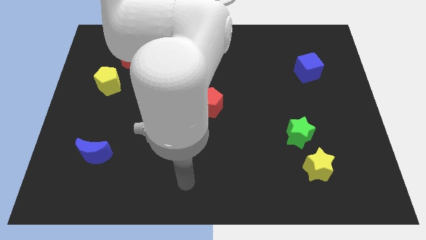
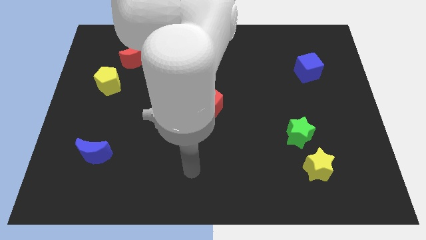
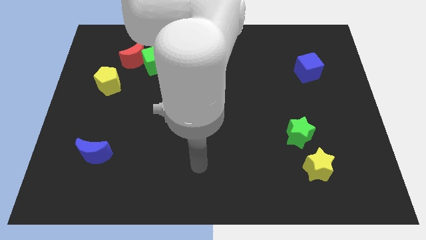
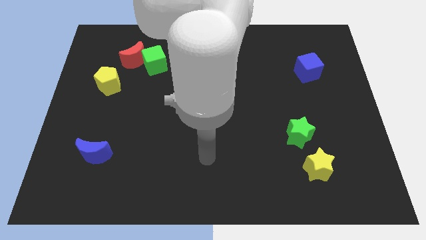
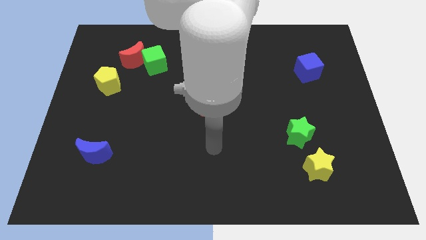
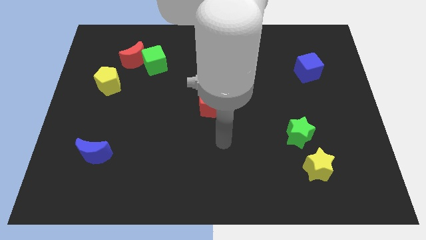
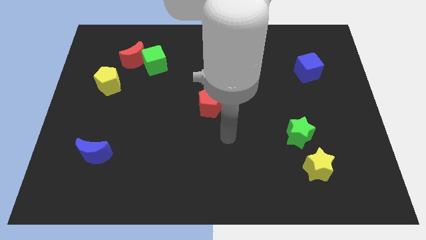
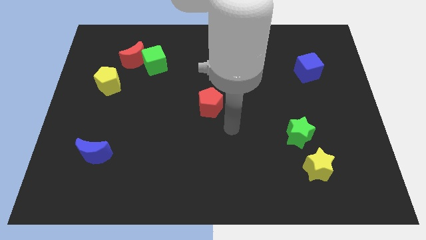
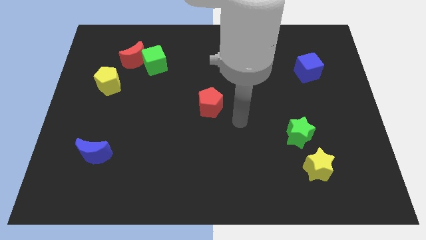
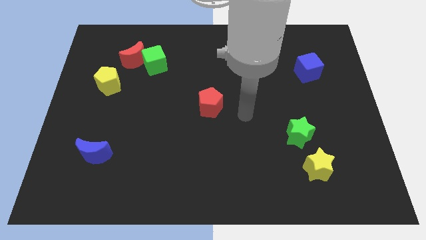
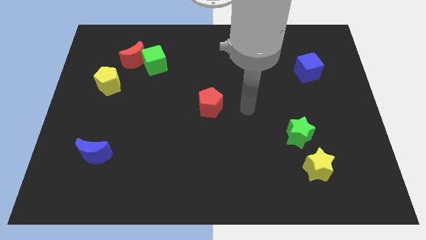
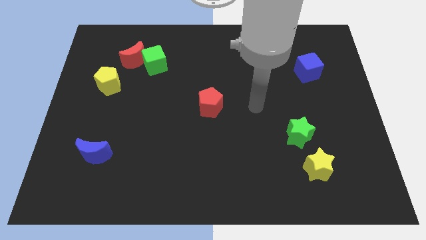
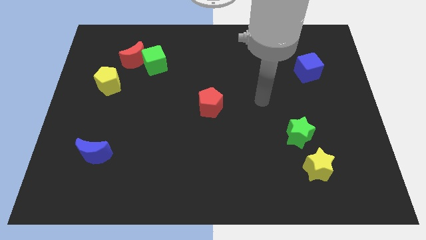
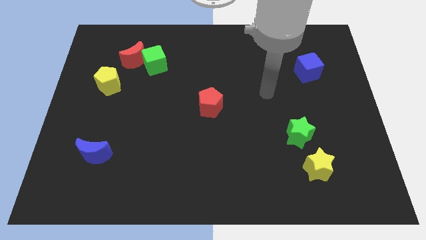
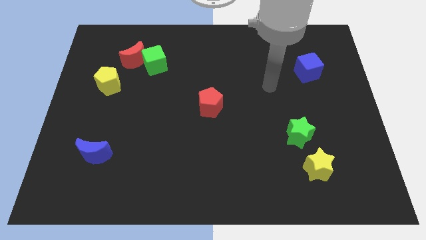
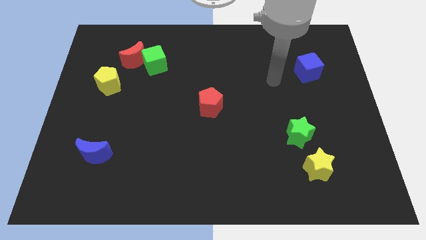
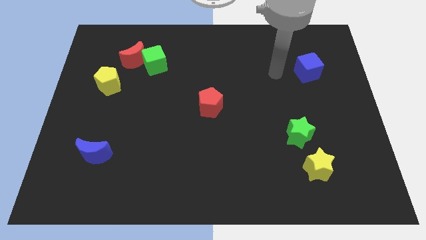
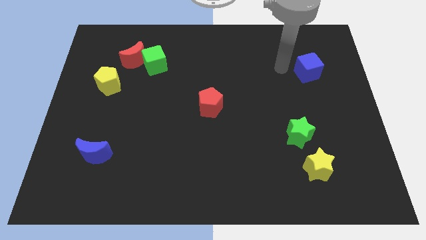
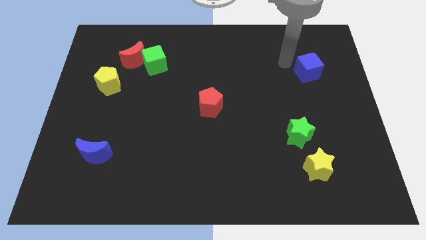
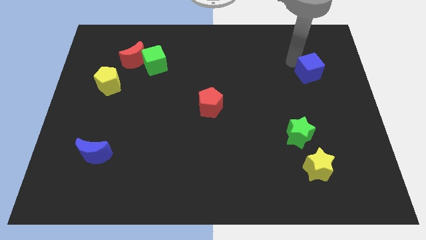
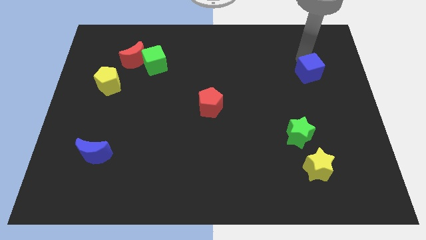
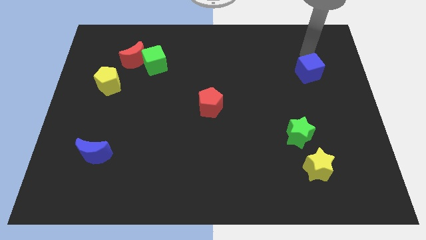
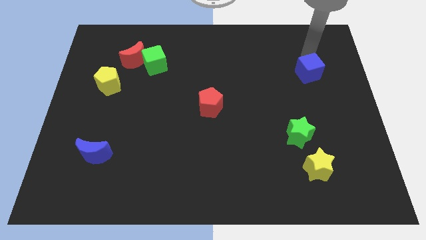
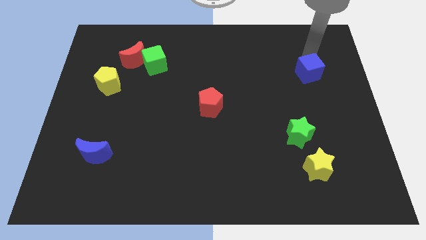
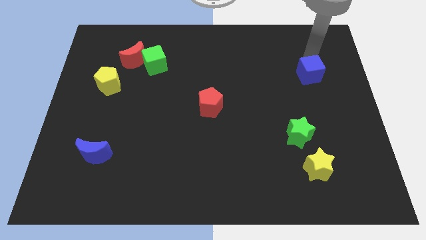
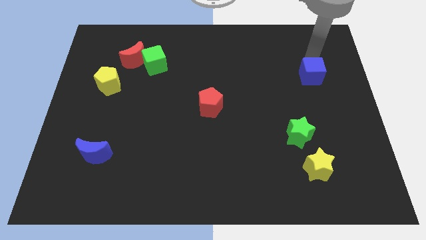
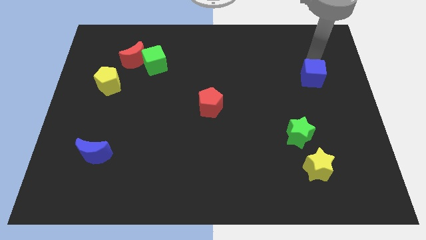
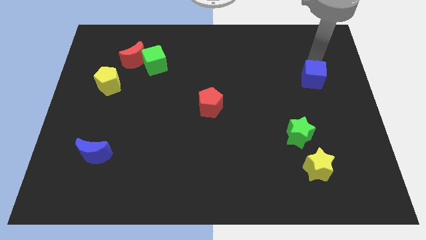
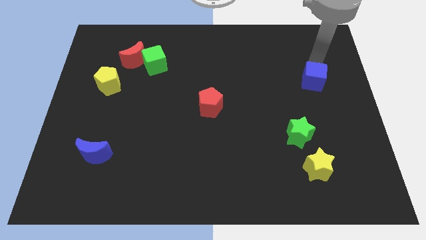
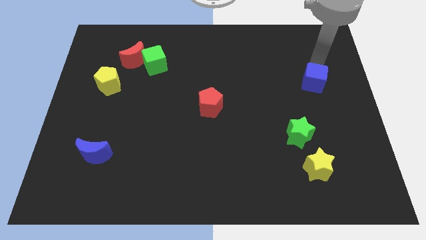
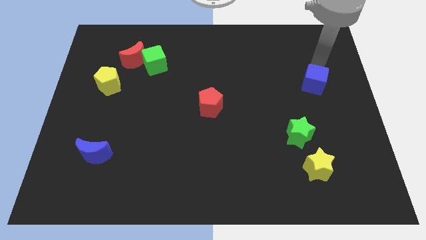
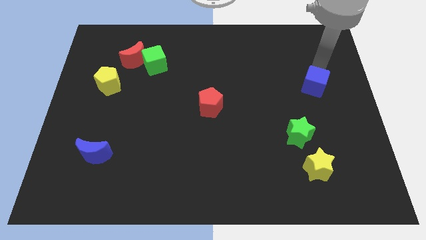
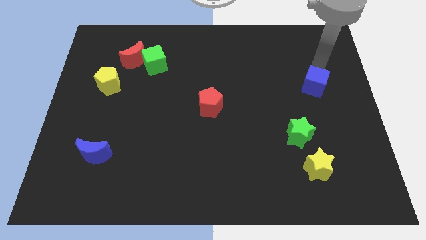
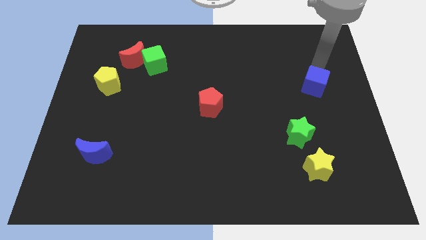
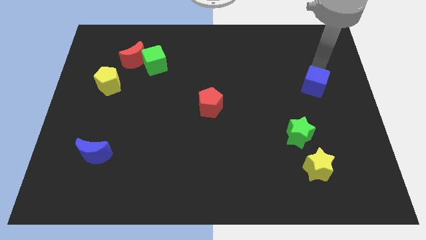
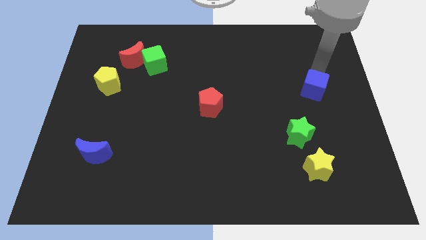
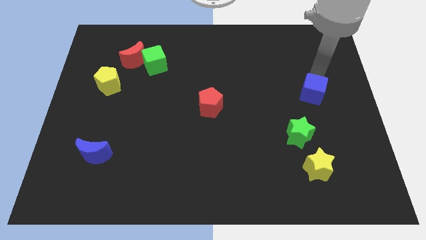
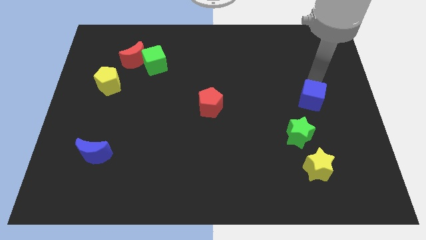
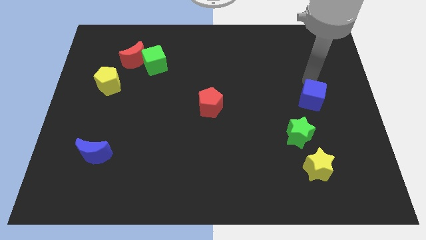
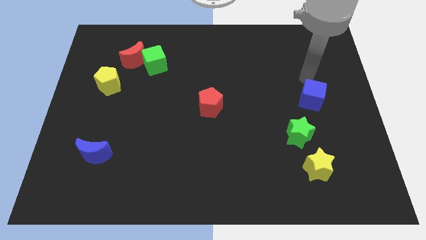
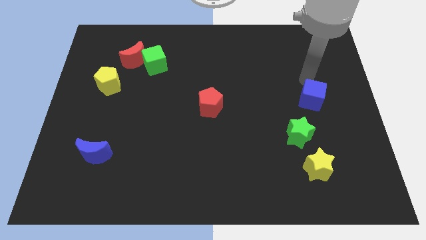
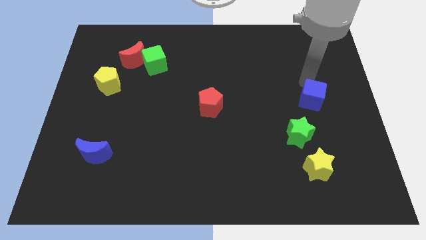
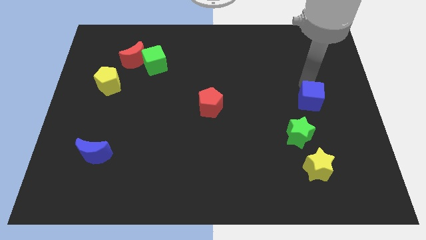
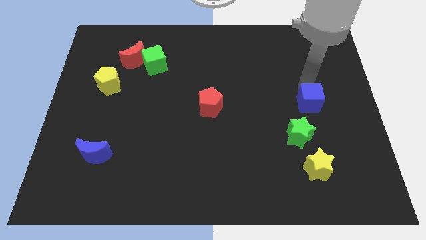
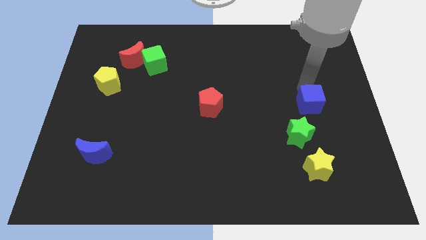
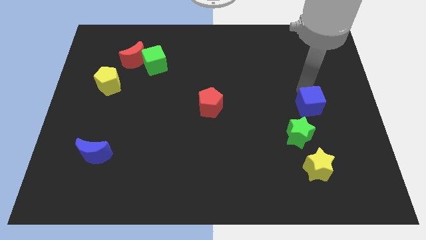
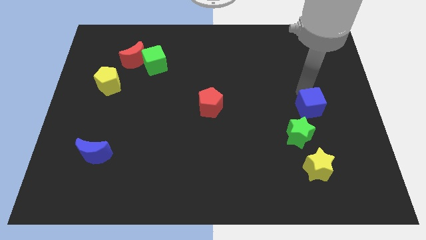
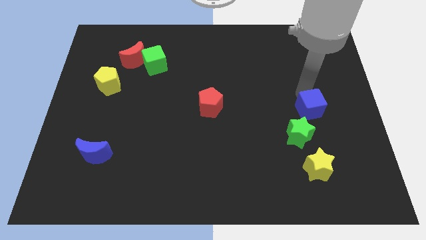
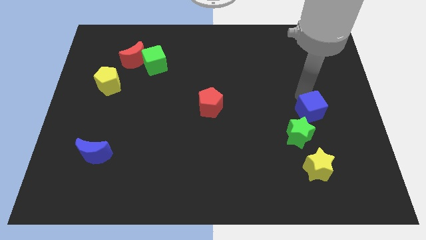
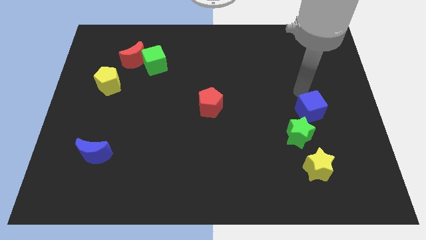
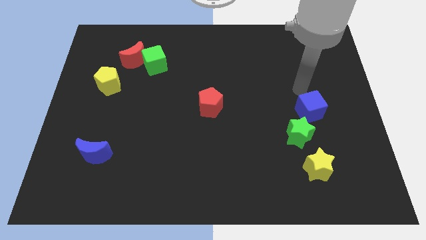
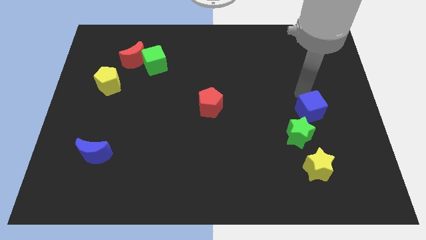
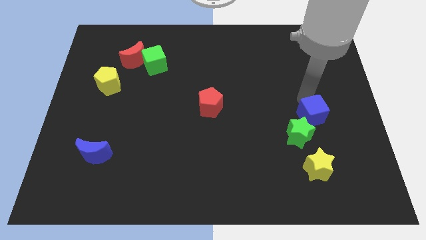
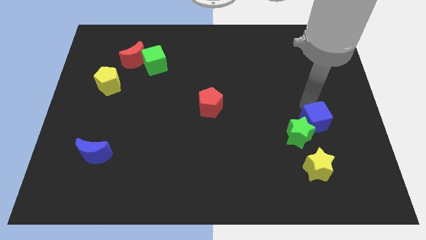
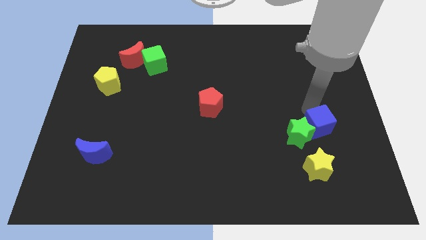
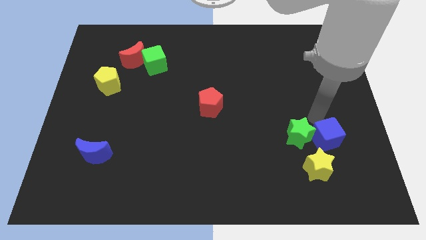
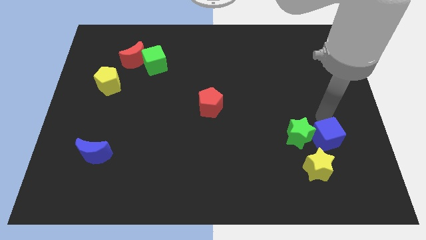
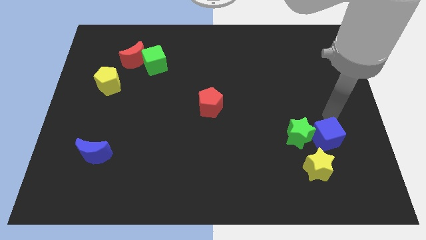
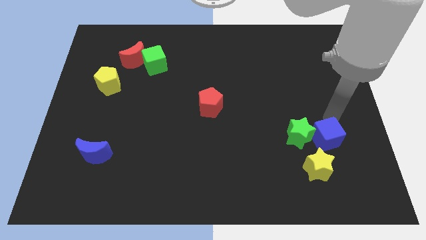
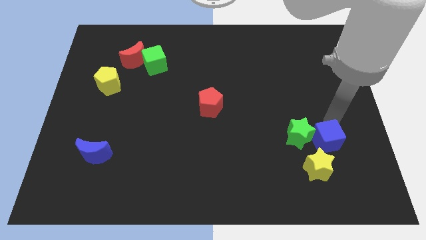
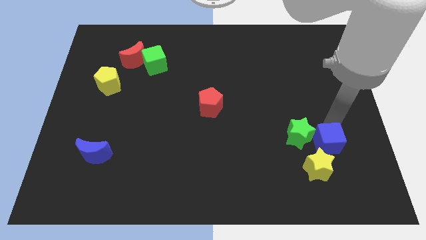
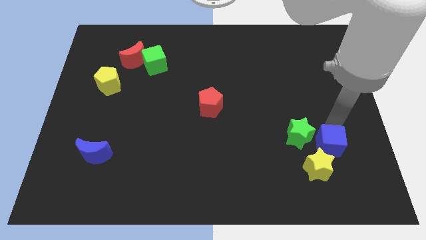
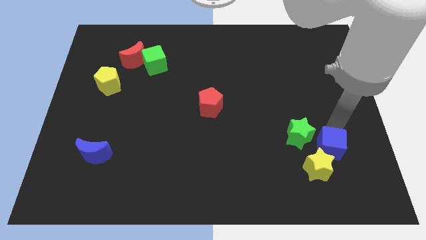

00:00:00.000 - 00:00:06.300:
put the blue cube next to the yellow star
